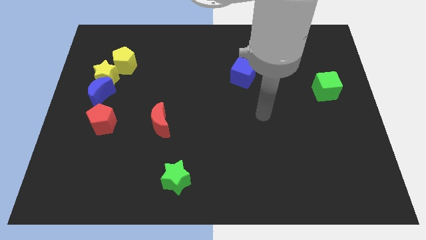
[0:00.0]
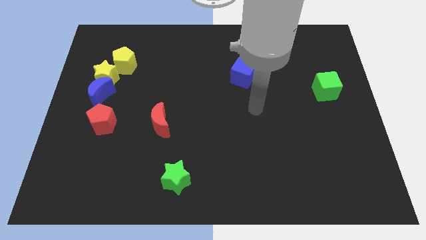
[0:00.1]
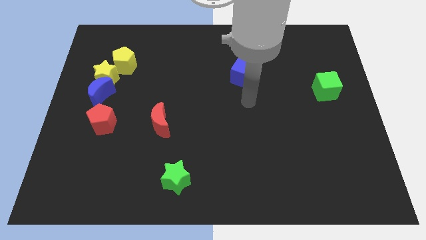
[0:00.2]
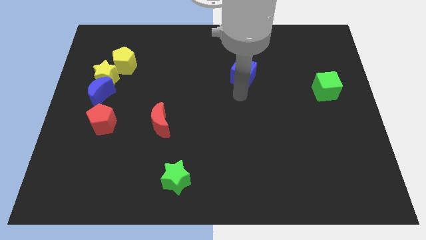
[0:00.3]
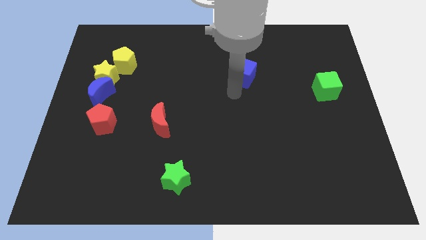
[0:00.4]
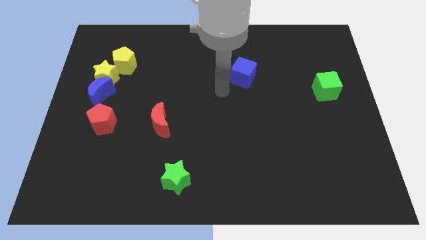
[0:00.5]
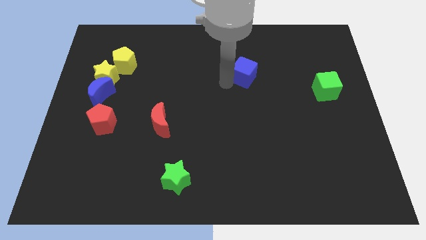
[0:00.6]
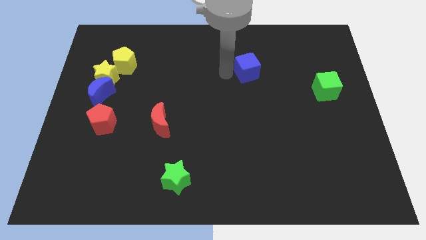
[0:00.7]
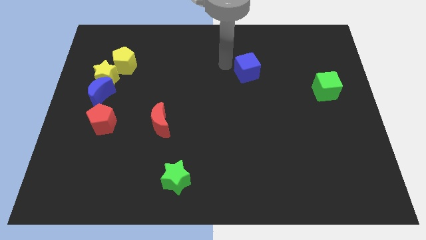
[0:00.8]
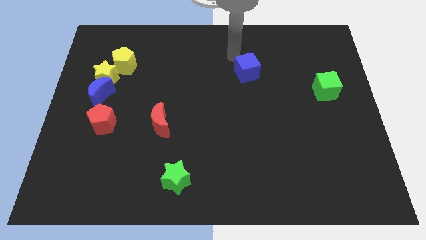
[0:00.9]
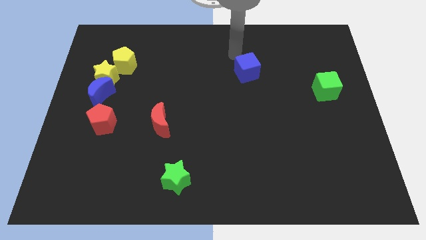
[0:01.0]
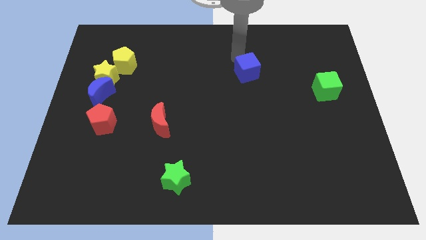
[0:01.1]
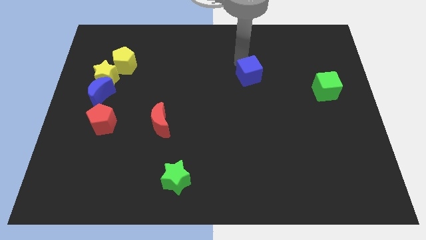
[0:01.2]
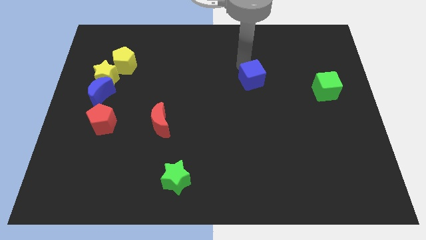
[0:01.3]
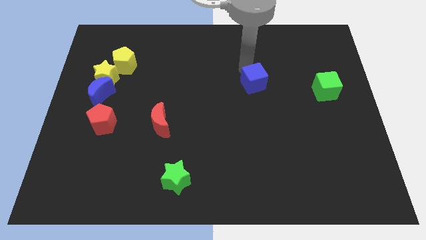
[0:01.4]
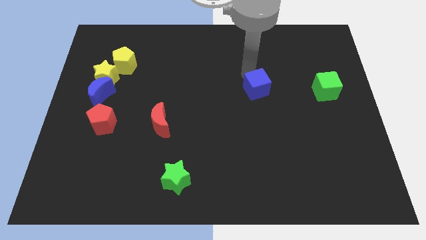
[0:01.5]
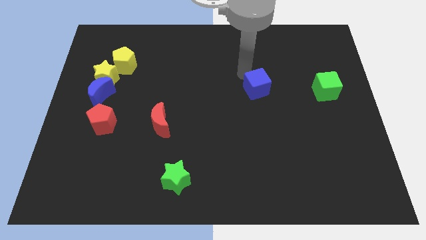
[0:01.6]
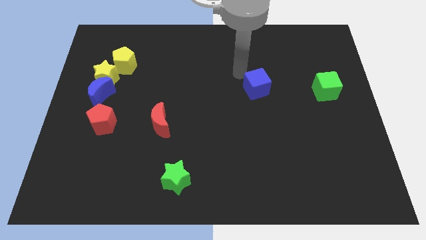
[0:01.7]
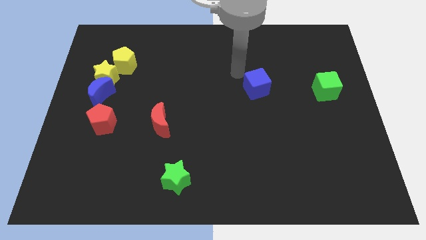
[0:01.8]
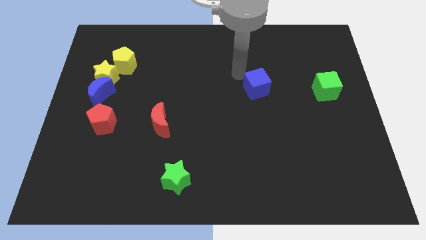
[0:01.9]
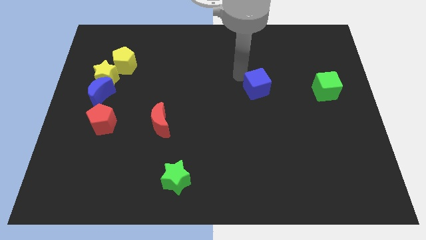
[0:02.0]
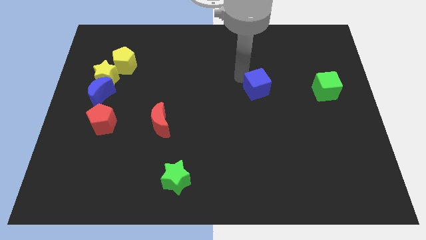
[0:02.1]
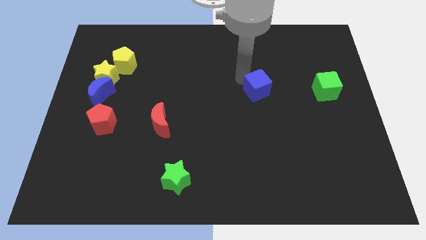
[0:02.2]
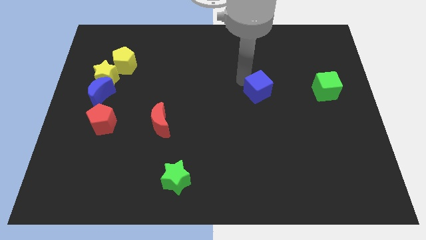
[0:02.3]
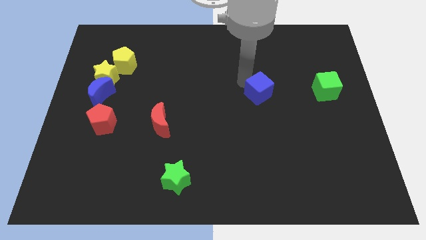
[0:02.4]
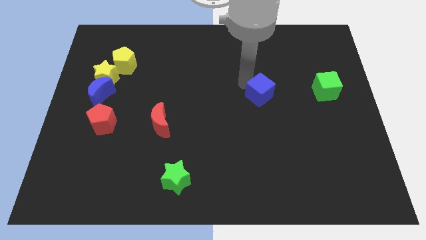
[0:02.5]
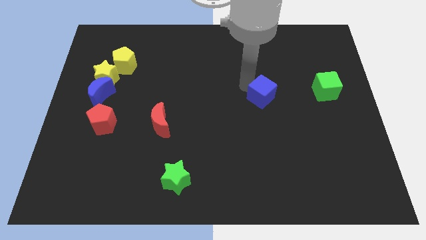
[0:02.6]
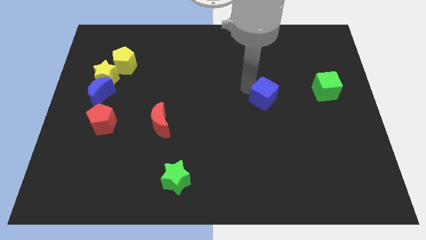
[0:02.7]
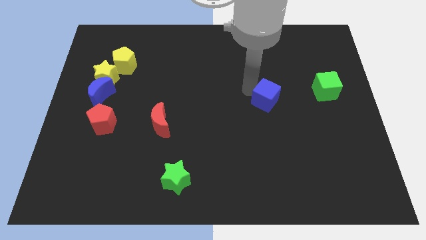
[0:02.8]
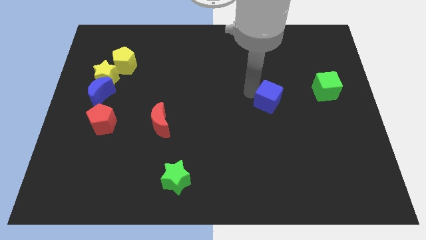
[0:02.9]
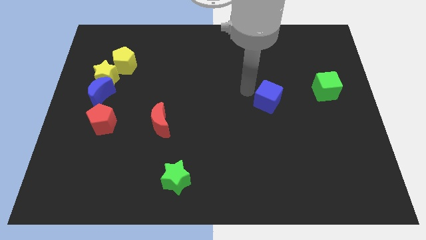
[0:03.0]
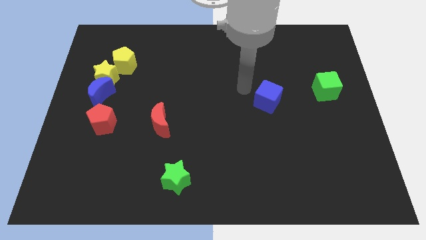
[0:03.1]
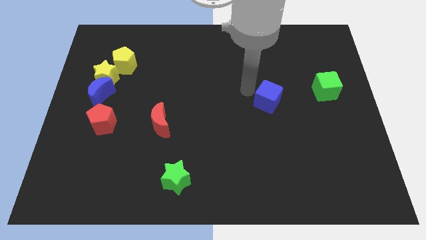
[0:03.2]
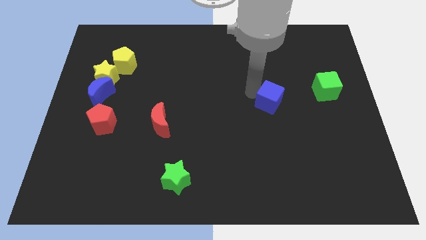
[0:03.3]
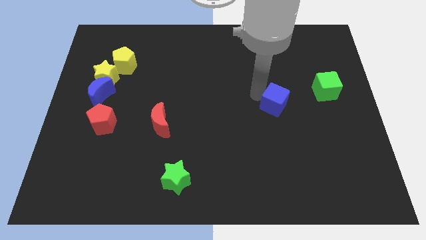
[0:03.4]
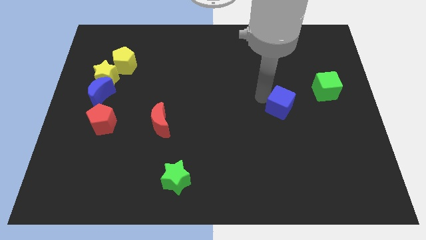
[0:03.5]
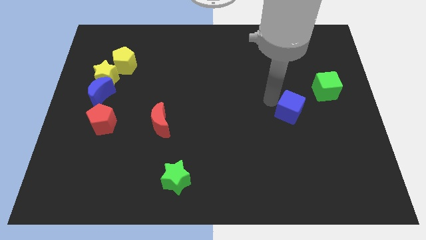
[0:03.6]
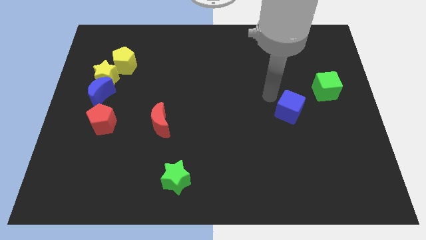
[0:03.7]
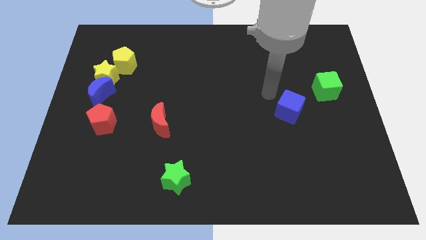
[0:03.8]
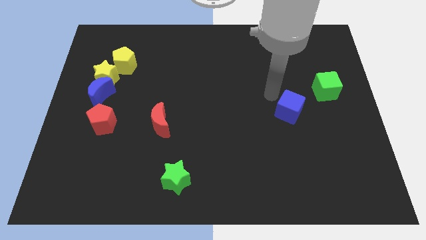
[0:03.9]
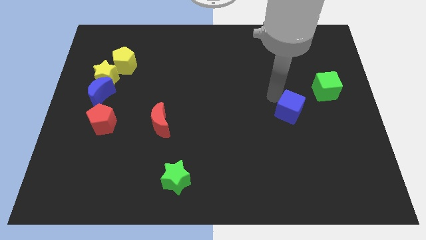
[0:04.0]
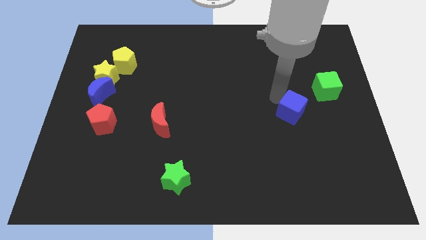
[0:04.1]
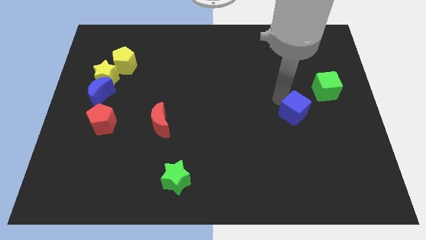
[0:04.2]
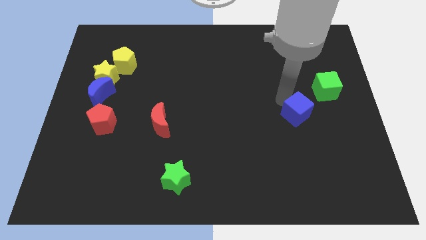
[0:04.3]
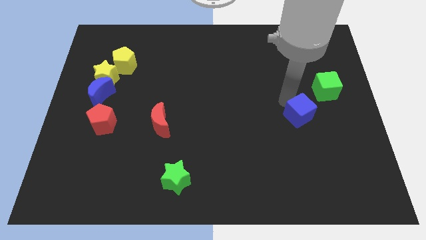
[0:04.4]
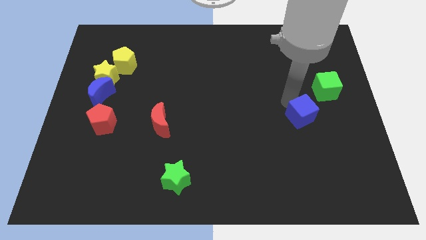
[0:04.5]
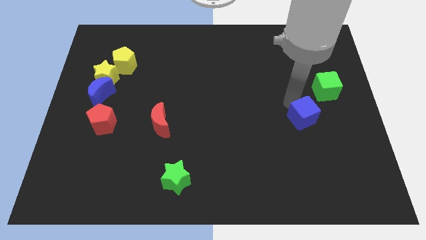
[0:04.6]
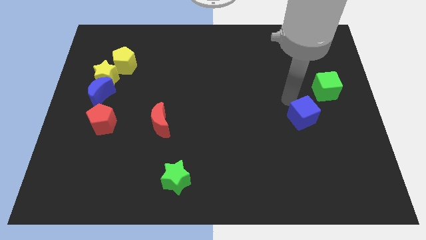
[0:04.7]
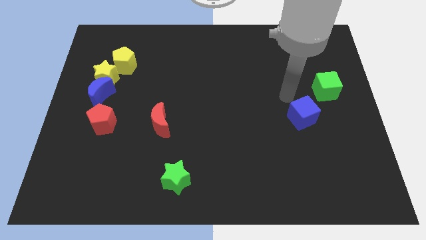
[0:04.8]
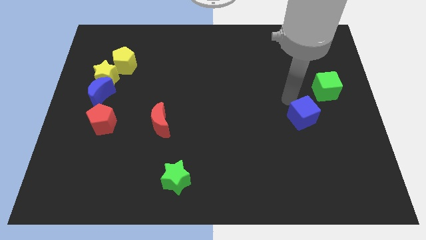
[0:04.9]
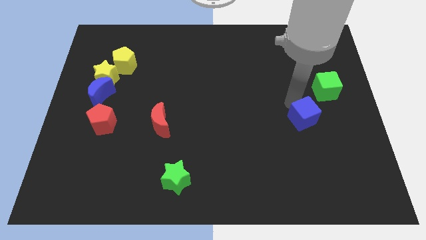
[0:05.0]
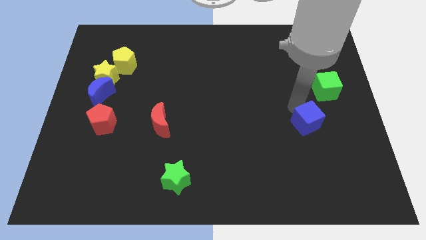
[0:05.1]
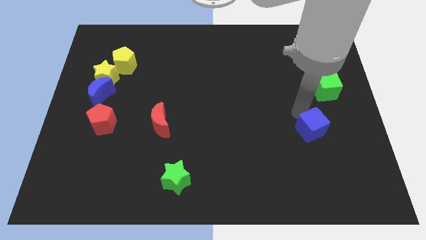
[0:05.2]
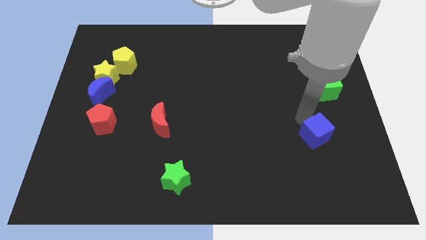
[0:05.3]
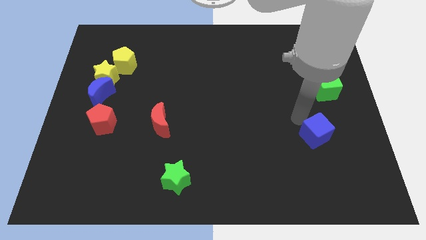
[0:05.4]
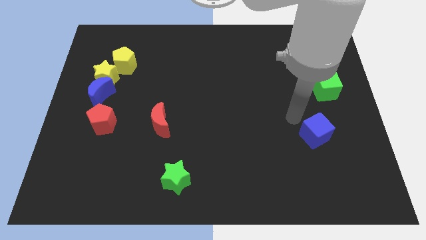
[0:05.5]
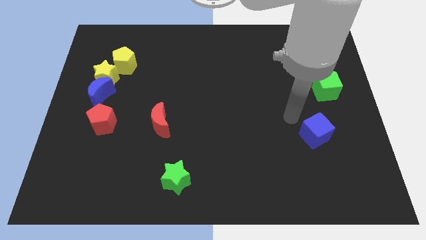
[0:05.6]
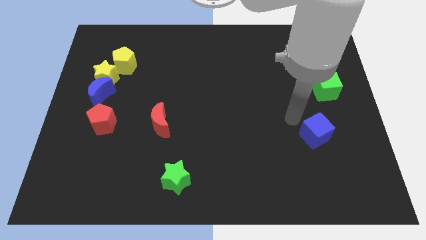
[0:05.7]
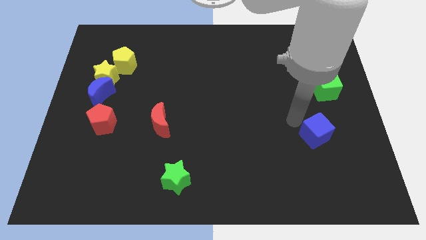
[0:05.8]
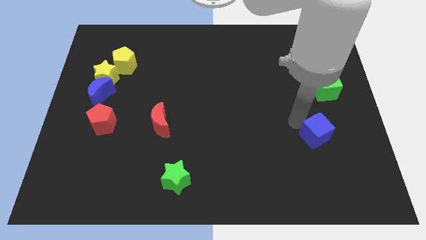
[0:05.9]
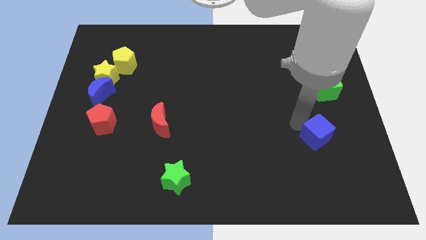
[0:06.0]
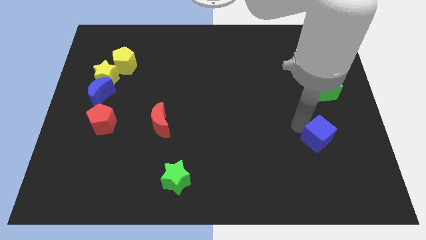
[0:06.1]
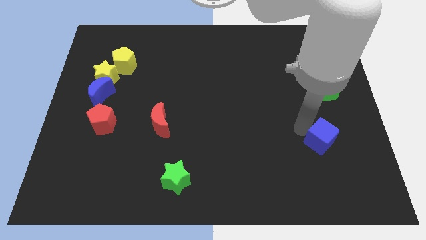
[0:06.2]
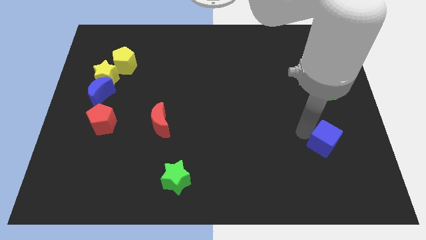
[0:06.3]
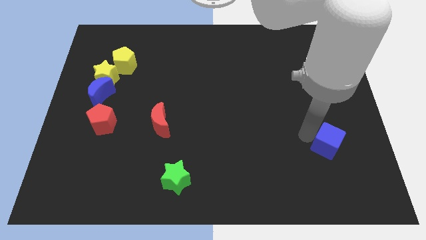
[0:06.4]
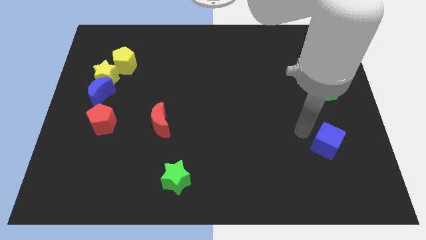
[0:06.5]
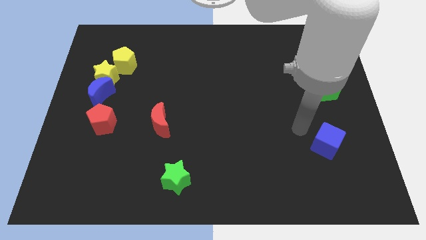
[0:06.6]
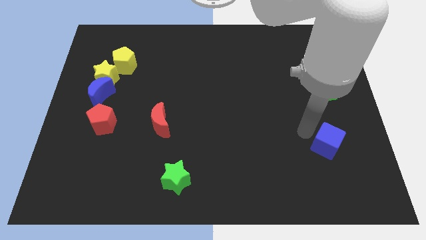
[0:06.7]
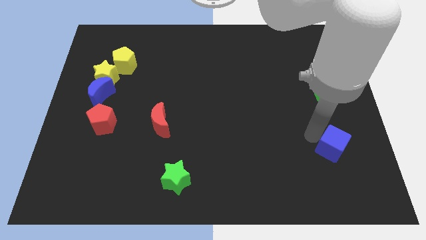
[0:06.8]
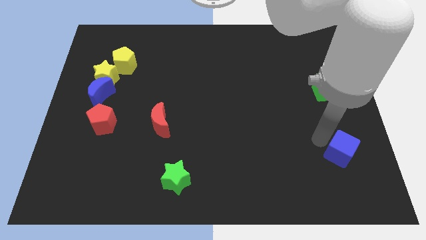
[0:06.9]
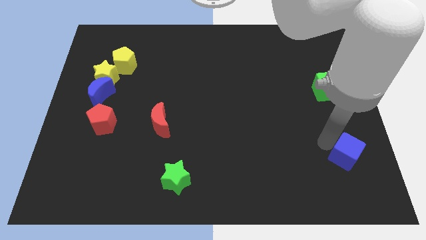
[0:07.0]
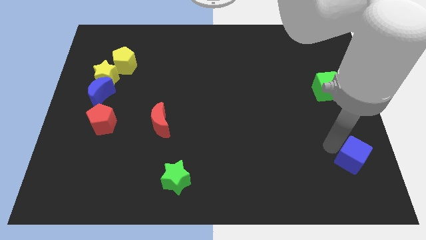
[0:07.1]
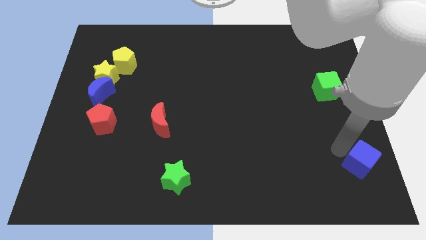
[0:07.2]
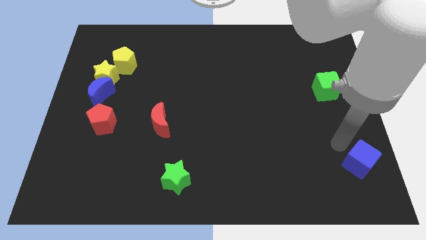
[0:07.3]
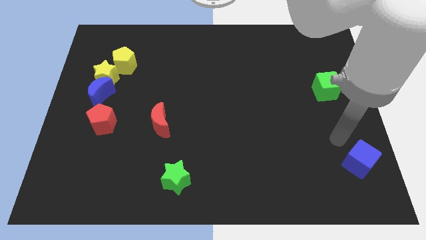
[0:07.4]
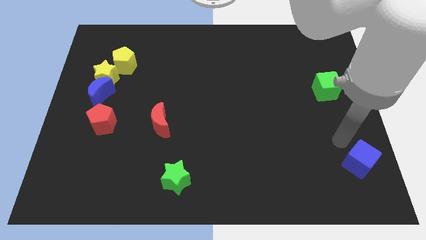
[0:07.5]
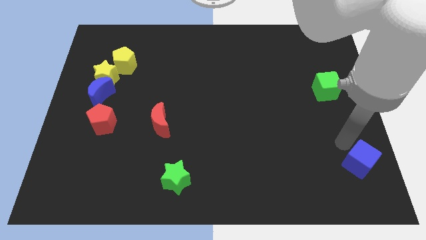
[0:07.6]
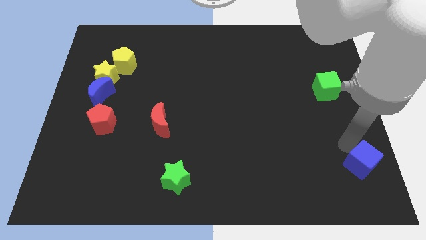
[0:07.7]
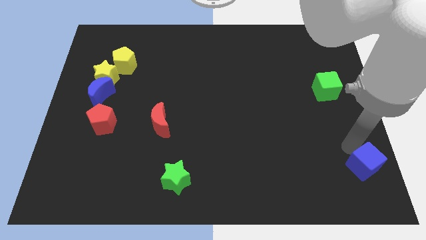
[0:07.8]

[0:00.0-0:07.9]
push the blue cube to the bottom right corner
